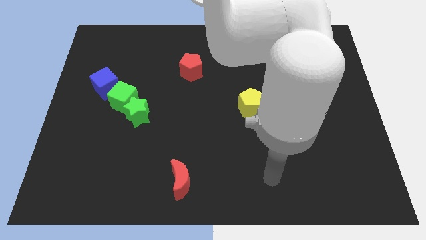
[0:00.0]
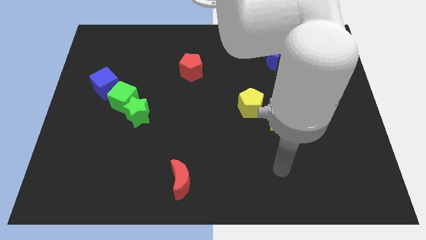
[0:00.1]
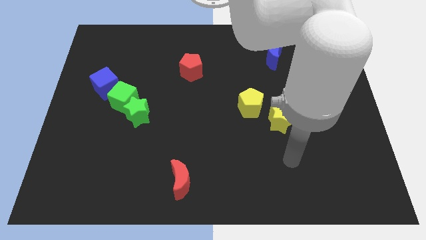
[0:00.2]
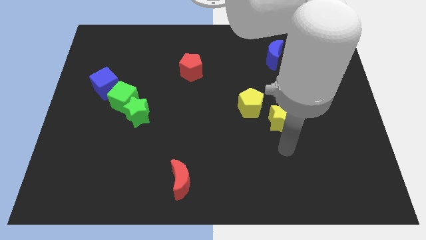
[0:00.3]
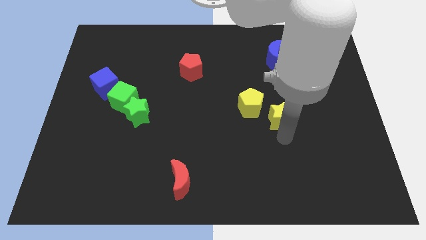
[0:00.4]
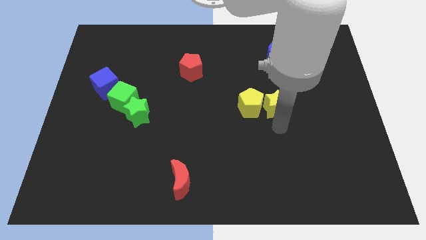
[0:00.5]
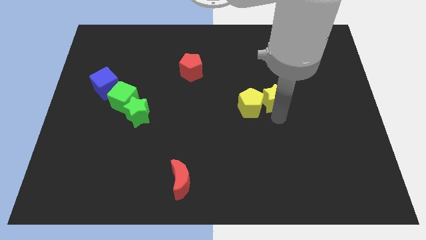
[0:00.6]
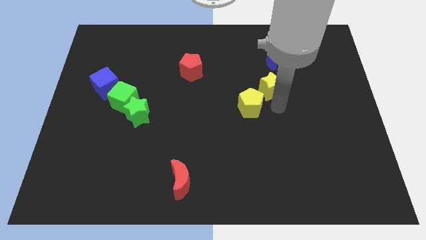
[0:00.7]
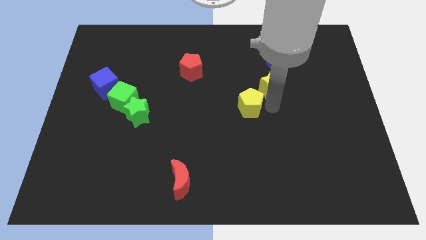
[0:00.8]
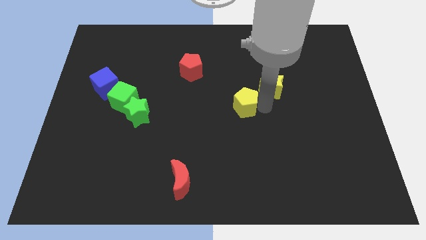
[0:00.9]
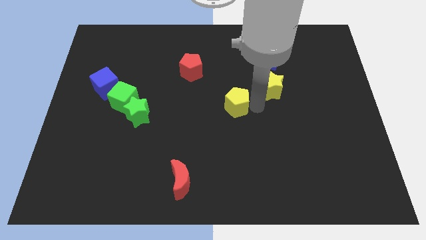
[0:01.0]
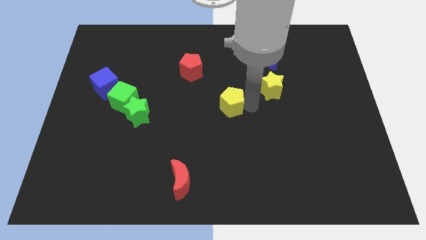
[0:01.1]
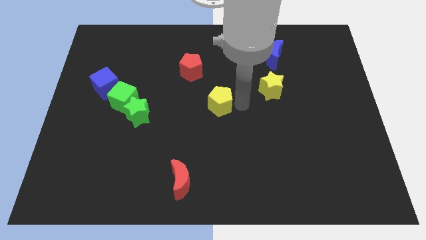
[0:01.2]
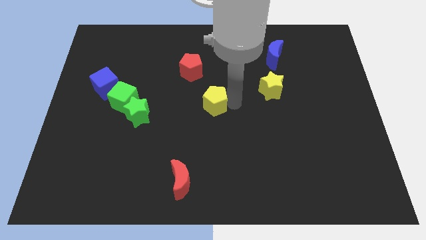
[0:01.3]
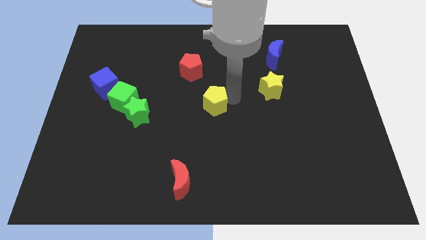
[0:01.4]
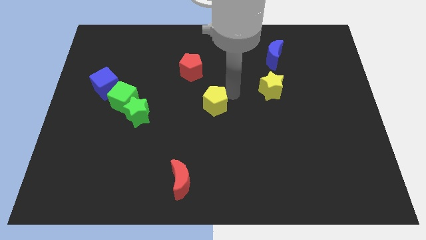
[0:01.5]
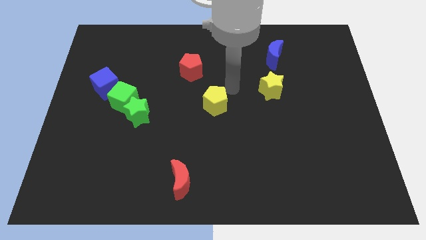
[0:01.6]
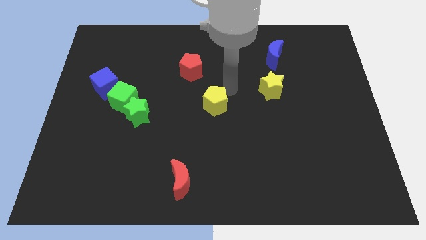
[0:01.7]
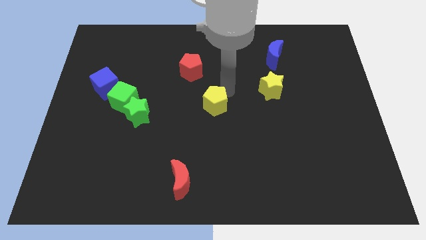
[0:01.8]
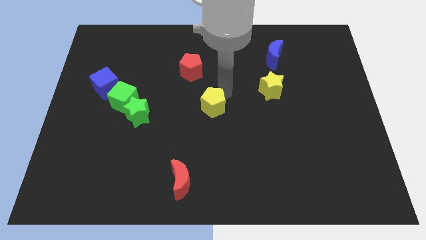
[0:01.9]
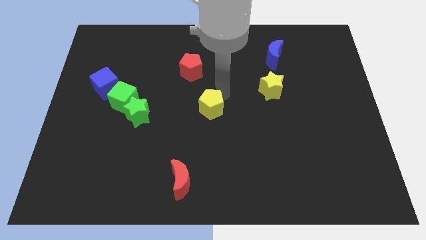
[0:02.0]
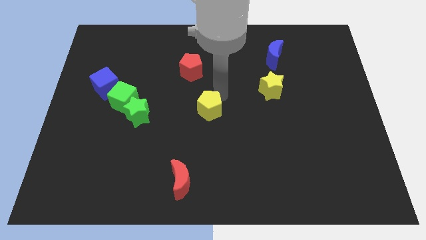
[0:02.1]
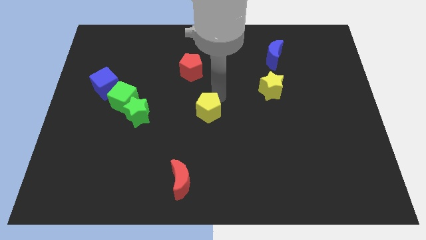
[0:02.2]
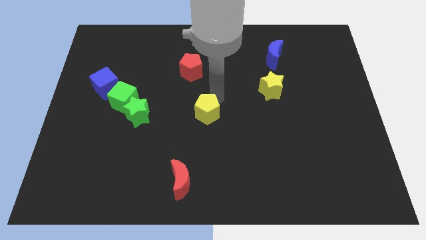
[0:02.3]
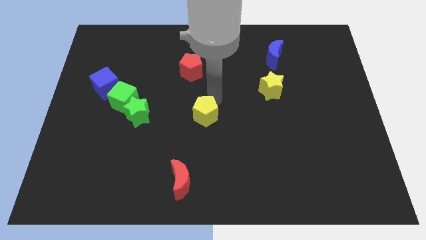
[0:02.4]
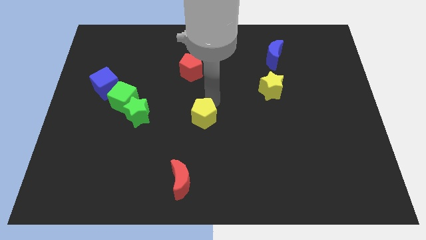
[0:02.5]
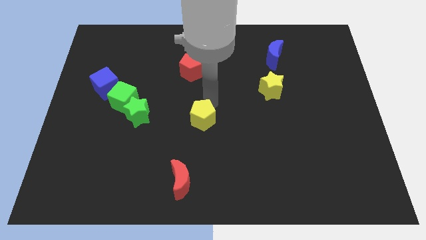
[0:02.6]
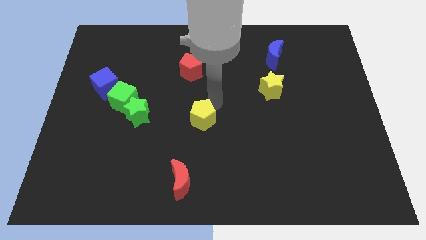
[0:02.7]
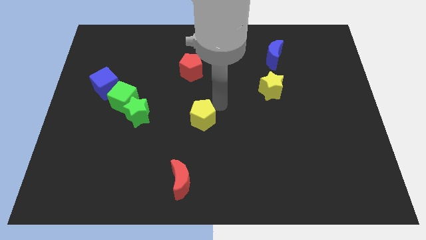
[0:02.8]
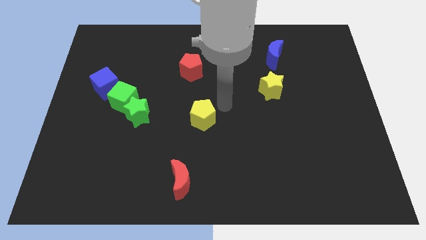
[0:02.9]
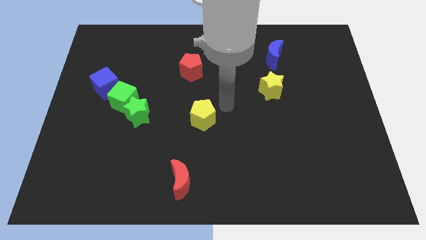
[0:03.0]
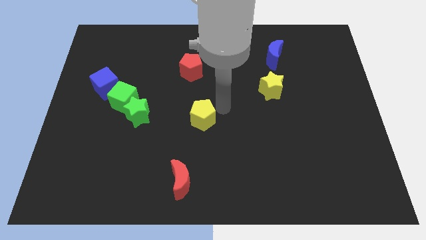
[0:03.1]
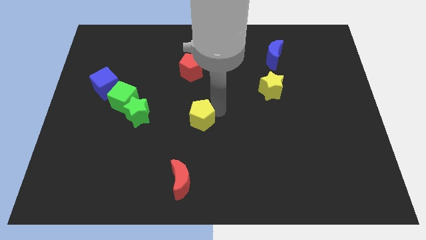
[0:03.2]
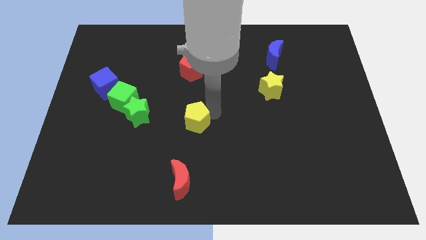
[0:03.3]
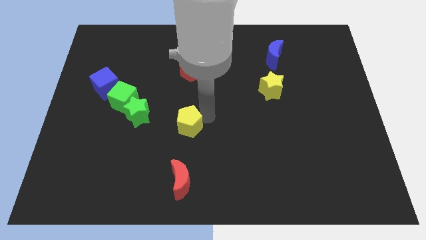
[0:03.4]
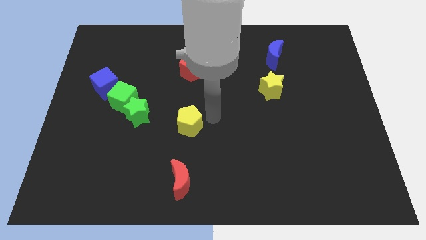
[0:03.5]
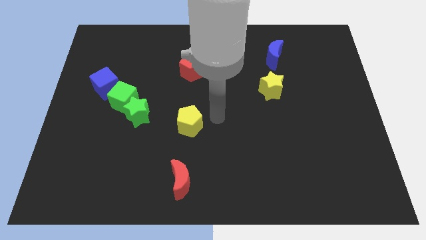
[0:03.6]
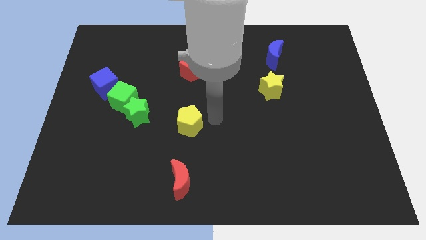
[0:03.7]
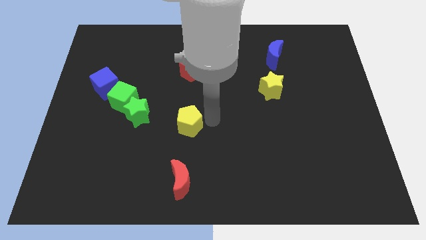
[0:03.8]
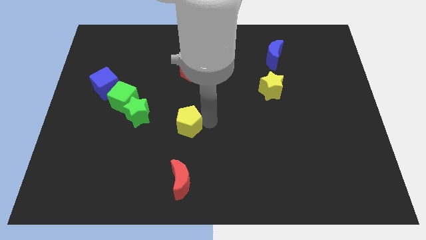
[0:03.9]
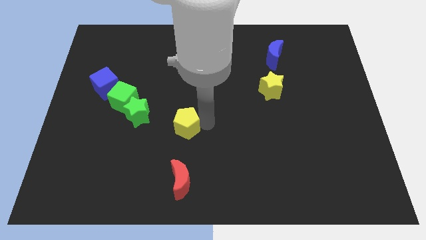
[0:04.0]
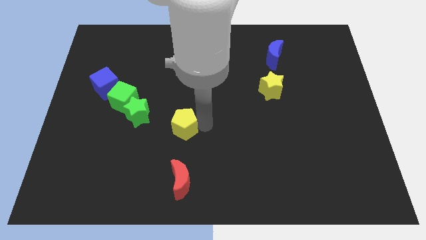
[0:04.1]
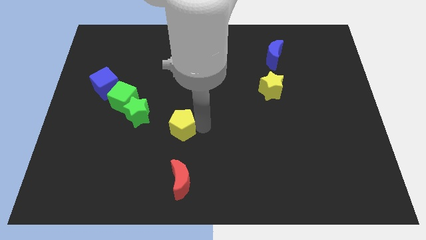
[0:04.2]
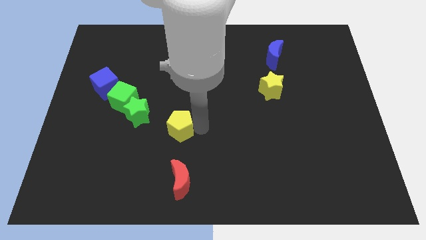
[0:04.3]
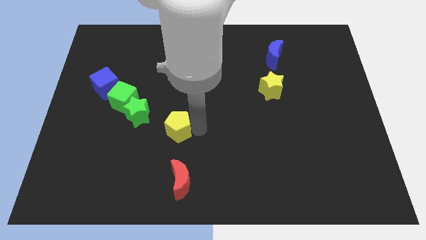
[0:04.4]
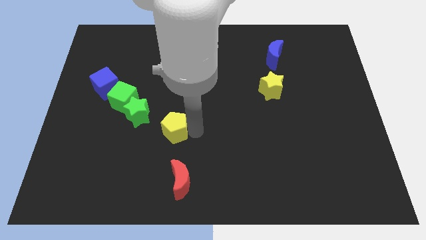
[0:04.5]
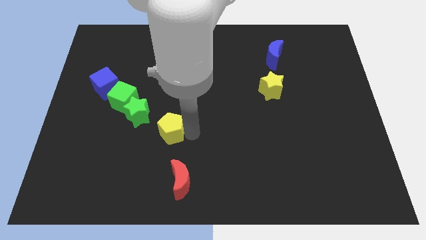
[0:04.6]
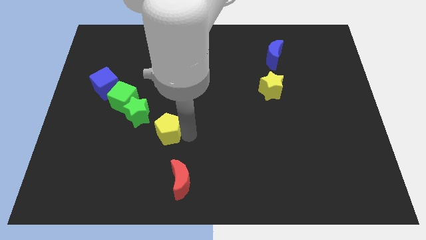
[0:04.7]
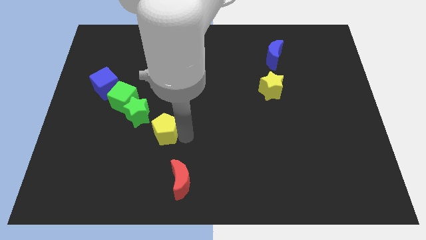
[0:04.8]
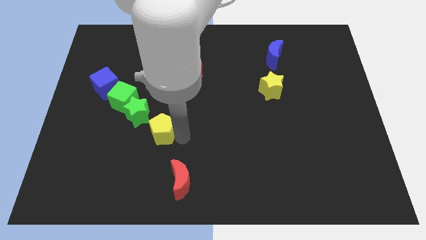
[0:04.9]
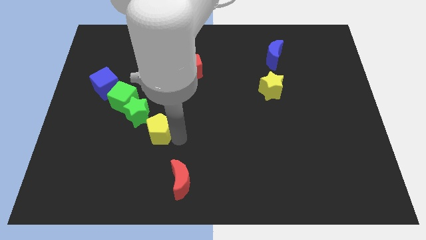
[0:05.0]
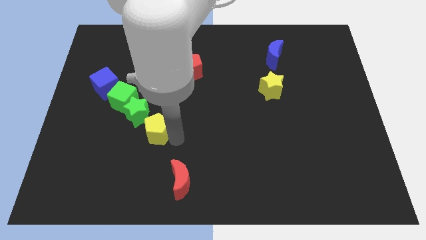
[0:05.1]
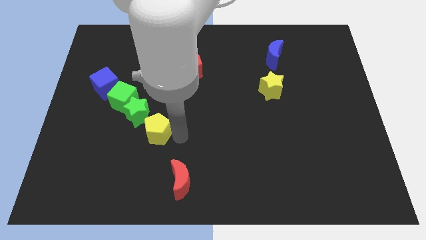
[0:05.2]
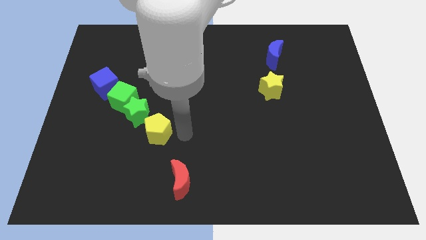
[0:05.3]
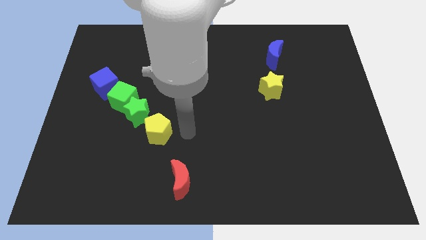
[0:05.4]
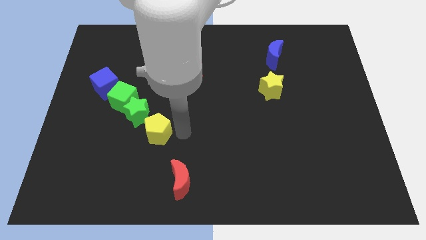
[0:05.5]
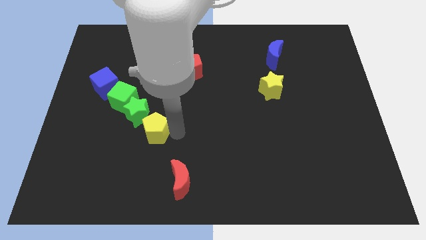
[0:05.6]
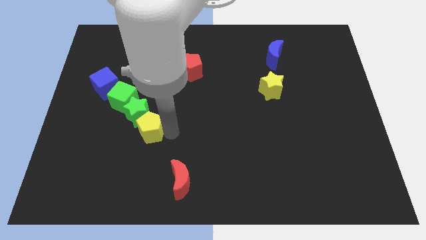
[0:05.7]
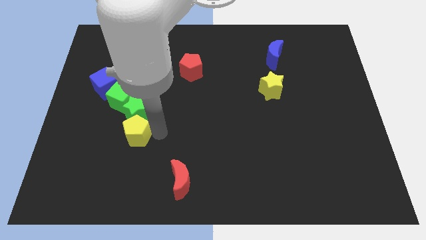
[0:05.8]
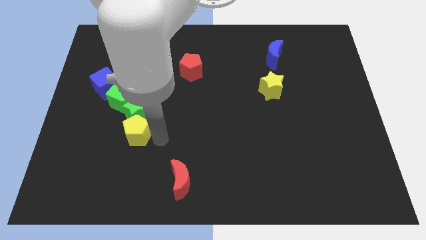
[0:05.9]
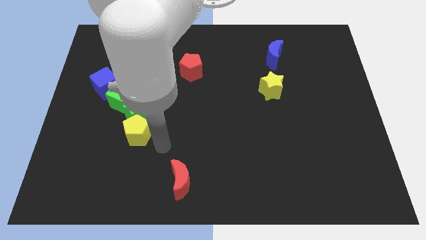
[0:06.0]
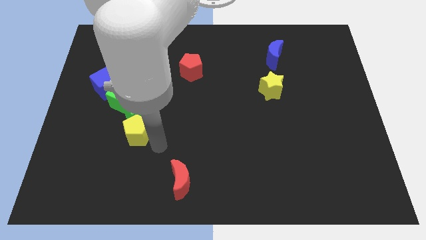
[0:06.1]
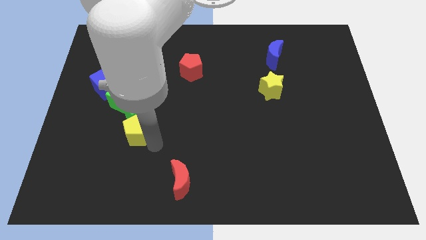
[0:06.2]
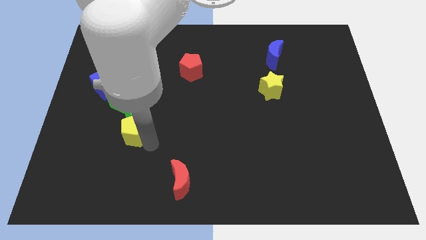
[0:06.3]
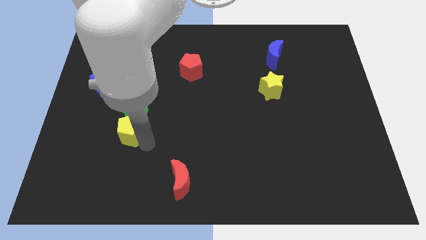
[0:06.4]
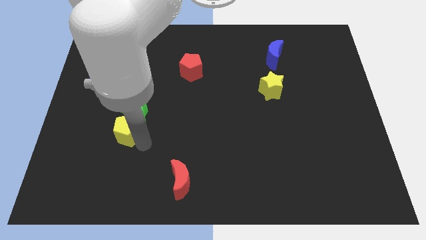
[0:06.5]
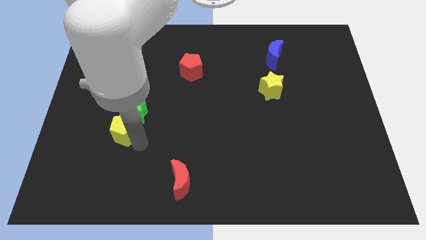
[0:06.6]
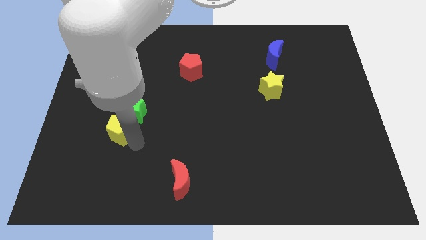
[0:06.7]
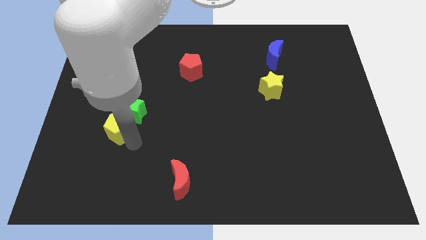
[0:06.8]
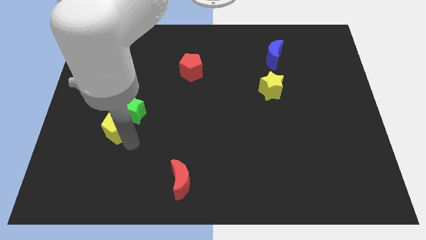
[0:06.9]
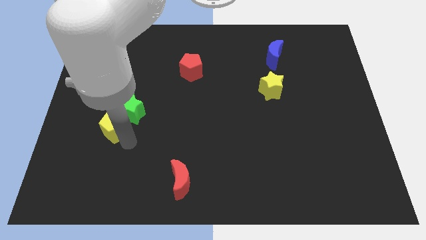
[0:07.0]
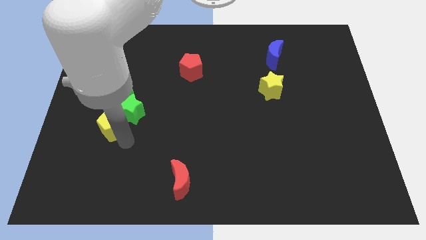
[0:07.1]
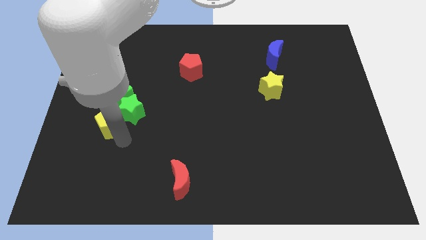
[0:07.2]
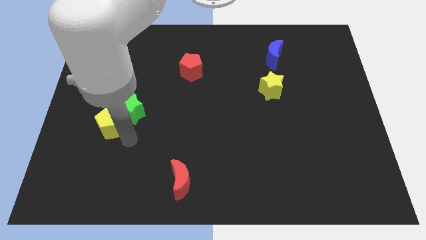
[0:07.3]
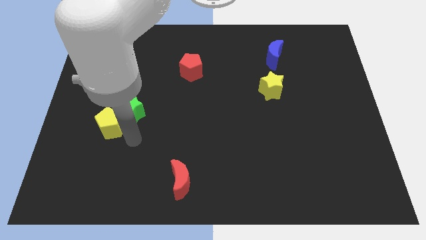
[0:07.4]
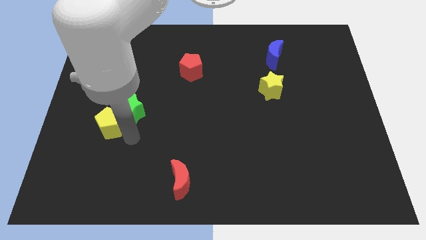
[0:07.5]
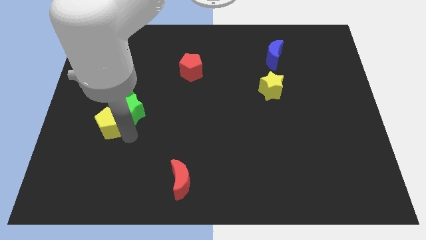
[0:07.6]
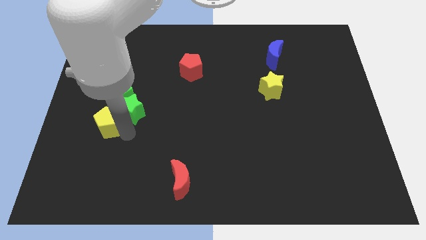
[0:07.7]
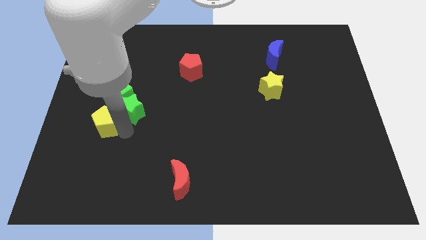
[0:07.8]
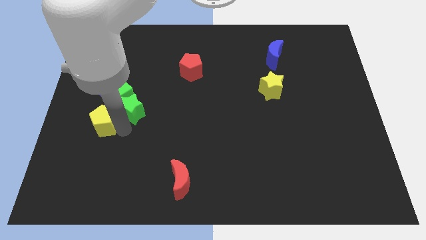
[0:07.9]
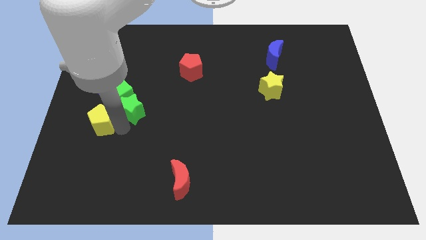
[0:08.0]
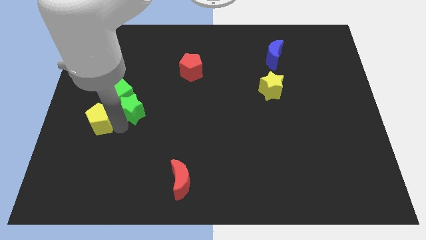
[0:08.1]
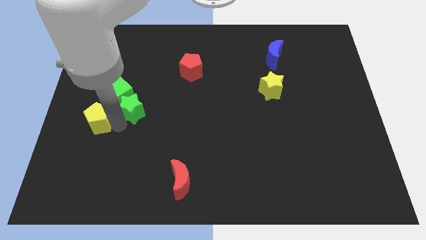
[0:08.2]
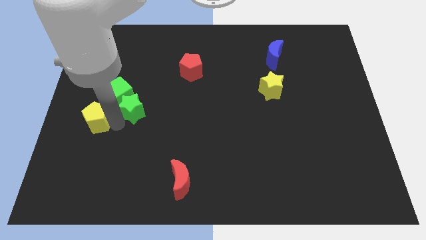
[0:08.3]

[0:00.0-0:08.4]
slide the yellow pentagon to the left side
